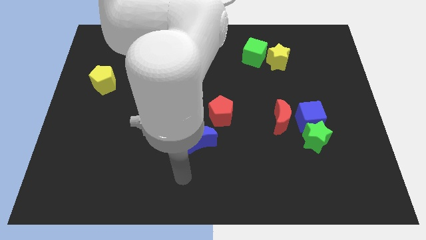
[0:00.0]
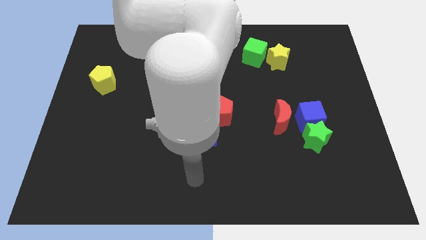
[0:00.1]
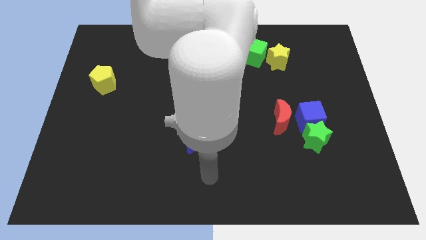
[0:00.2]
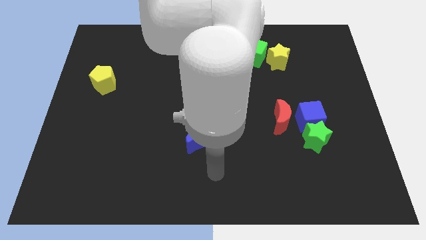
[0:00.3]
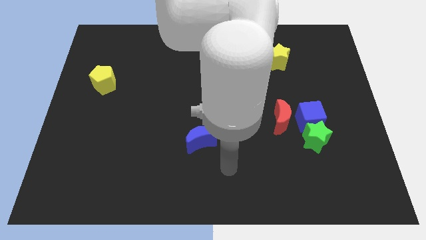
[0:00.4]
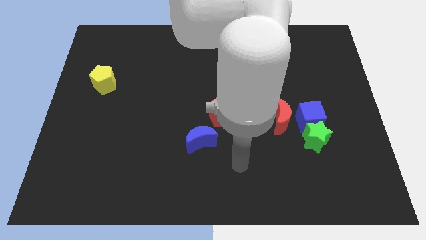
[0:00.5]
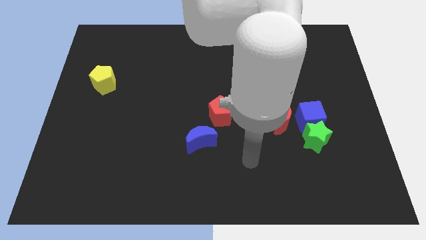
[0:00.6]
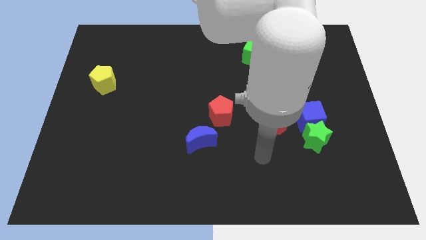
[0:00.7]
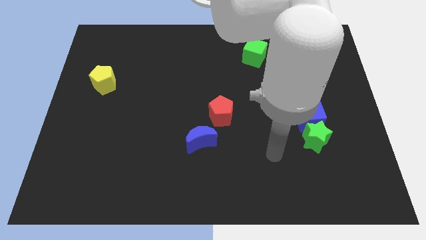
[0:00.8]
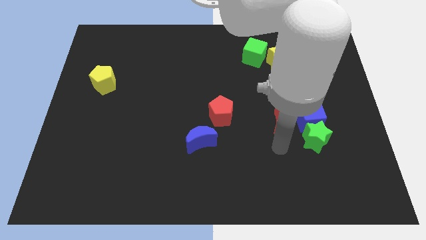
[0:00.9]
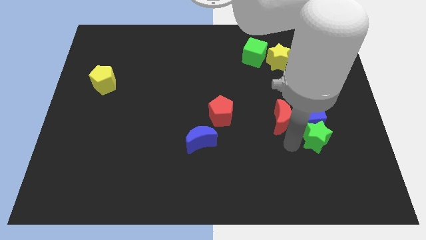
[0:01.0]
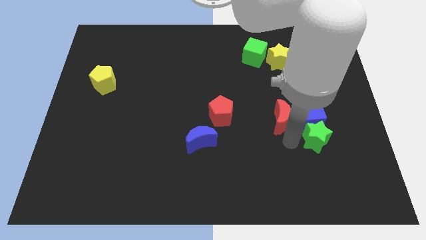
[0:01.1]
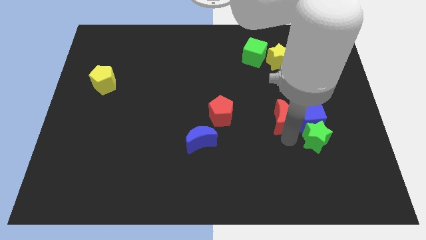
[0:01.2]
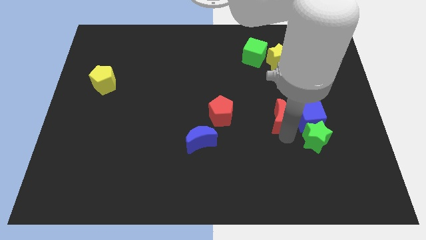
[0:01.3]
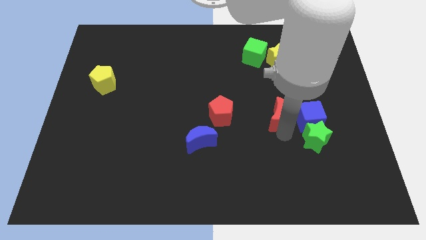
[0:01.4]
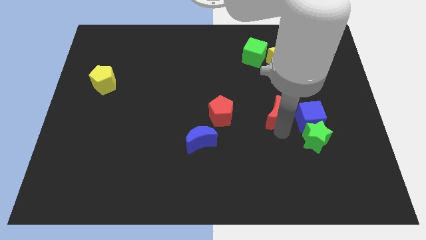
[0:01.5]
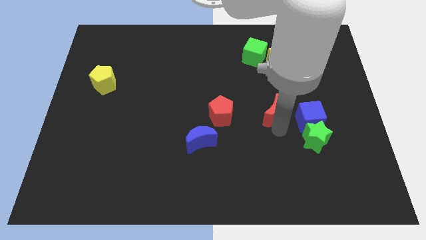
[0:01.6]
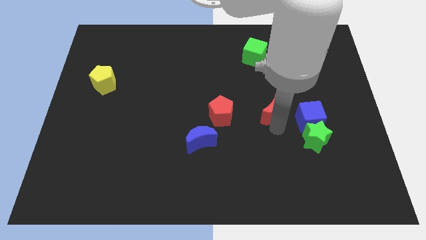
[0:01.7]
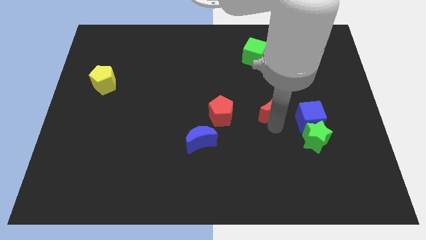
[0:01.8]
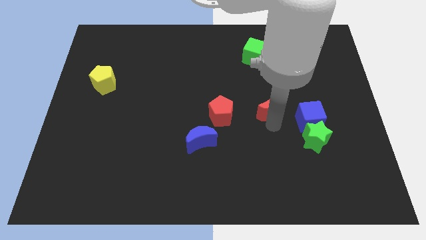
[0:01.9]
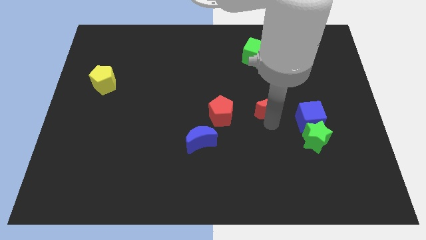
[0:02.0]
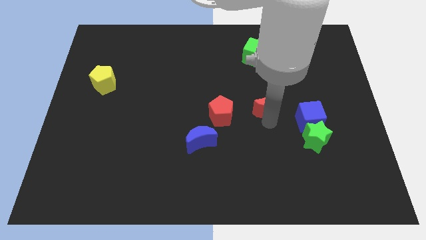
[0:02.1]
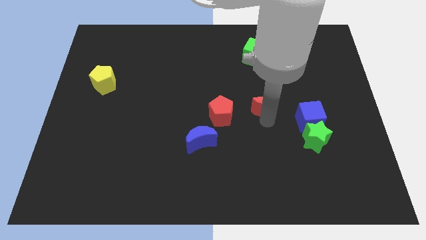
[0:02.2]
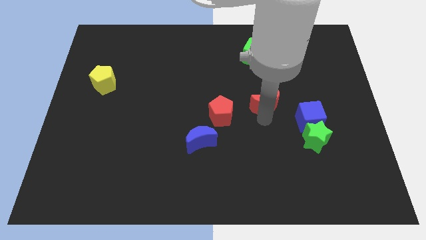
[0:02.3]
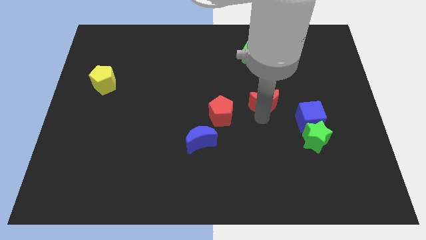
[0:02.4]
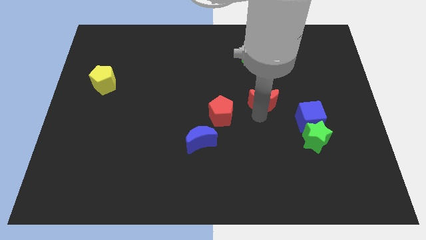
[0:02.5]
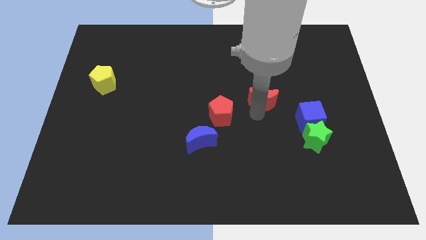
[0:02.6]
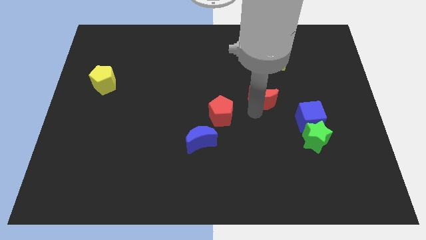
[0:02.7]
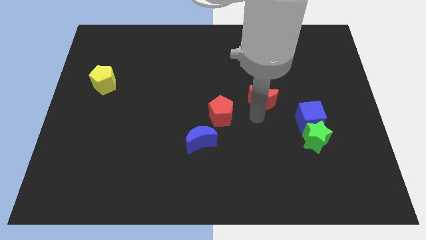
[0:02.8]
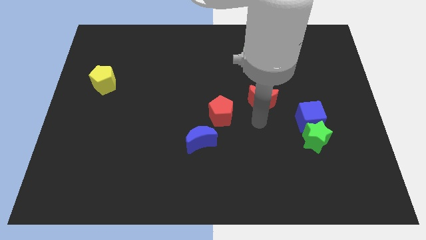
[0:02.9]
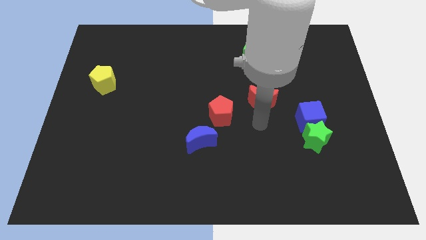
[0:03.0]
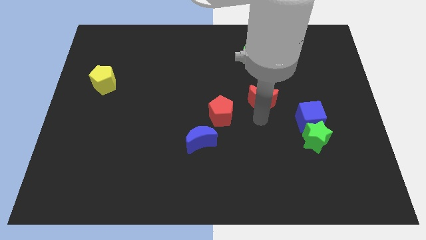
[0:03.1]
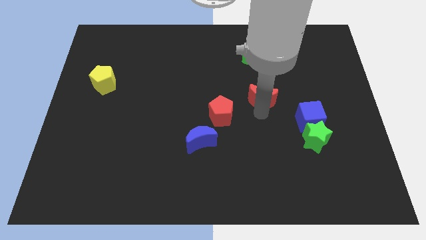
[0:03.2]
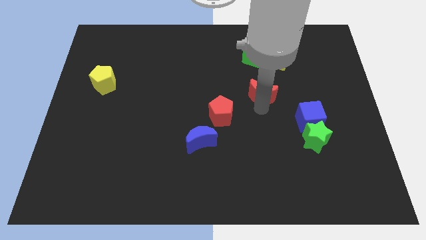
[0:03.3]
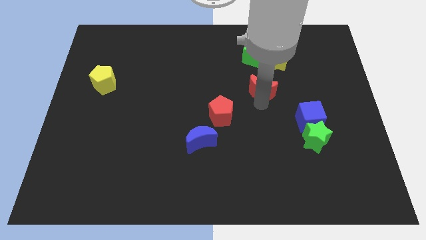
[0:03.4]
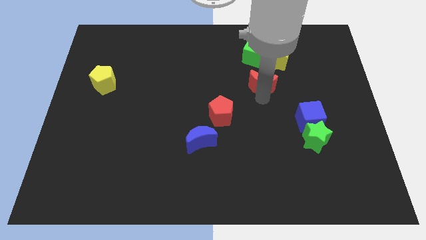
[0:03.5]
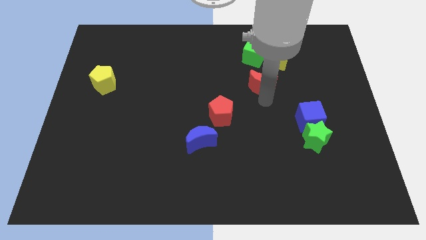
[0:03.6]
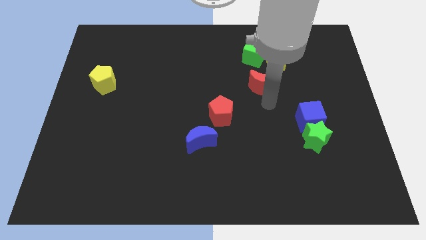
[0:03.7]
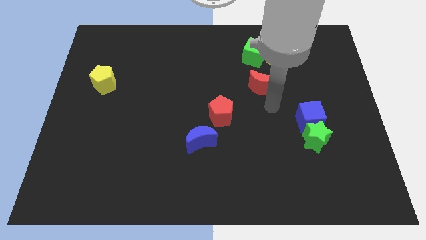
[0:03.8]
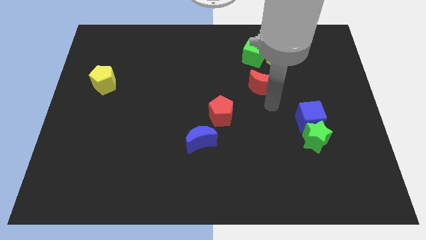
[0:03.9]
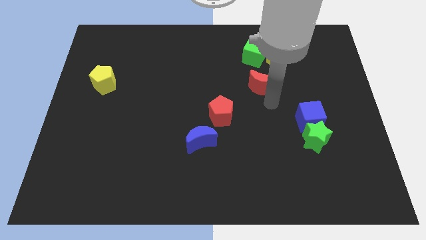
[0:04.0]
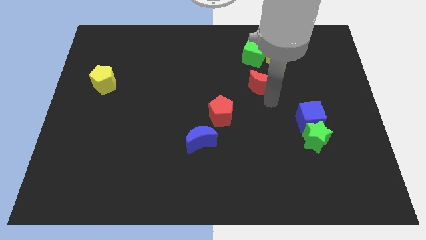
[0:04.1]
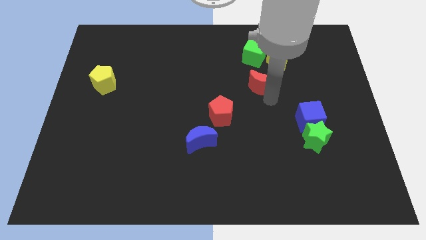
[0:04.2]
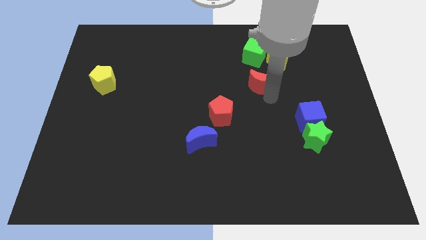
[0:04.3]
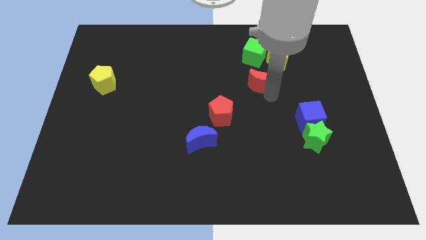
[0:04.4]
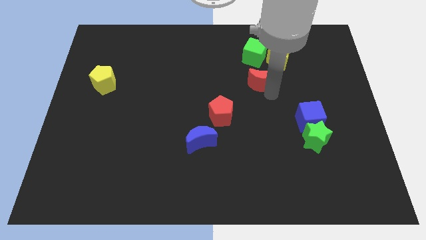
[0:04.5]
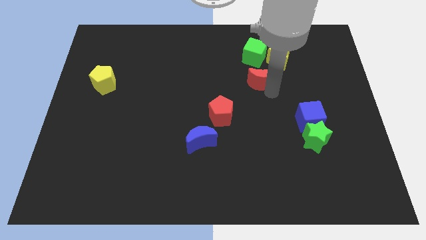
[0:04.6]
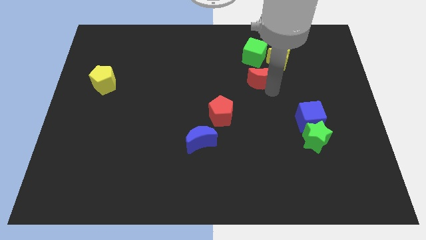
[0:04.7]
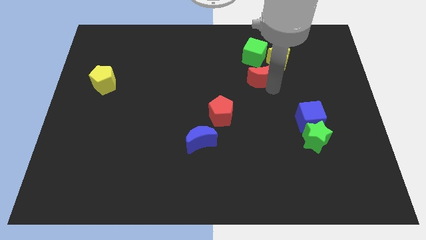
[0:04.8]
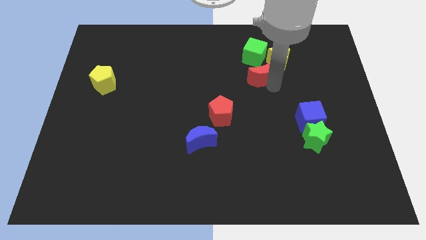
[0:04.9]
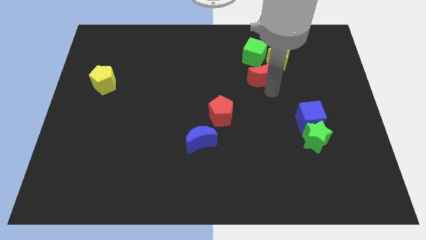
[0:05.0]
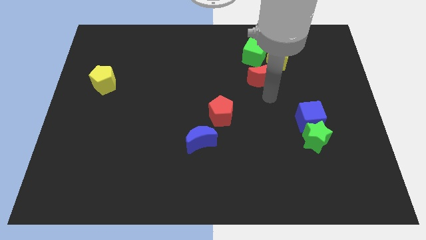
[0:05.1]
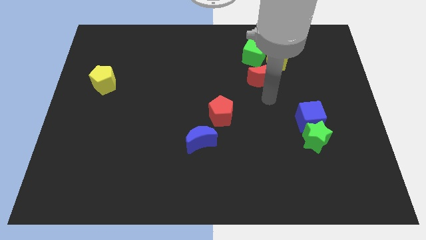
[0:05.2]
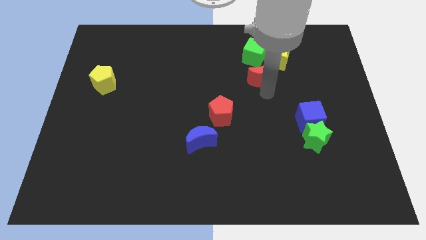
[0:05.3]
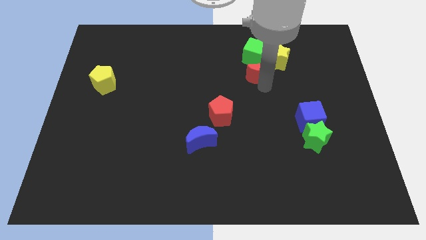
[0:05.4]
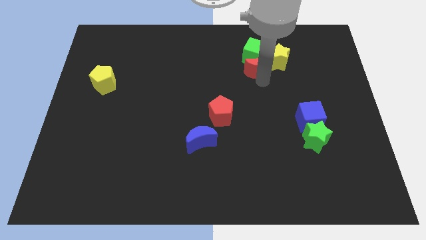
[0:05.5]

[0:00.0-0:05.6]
put the red moon next to the green cube

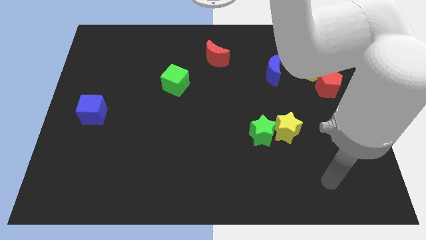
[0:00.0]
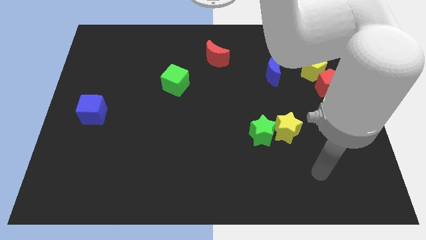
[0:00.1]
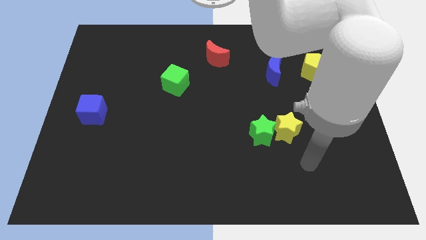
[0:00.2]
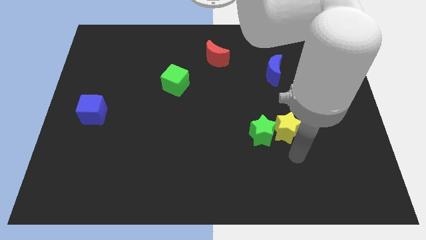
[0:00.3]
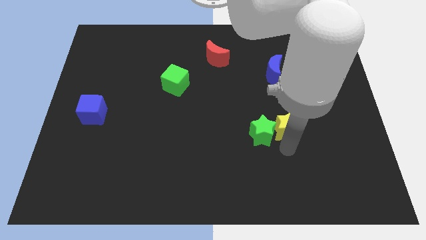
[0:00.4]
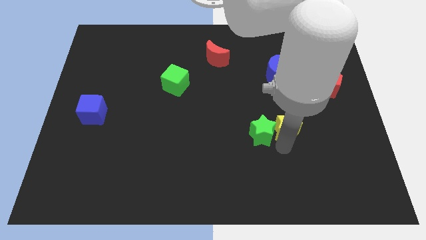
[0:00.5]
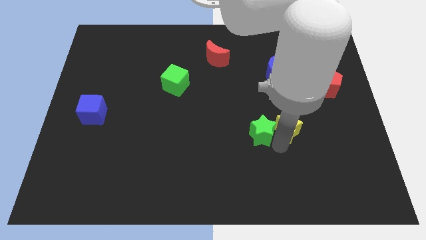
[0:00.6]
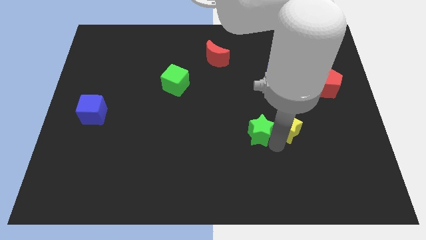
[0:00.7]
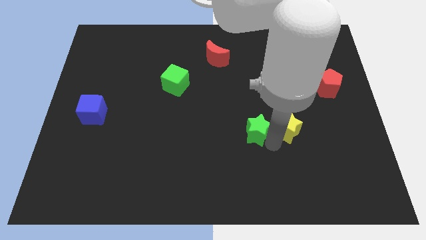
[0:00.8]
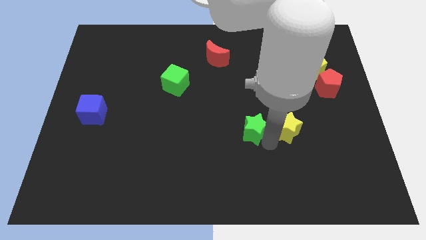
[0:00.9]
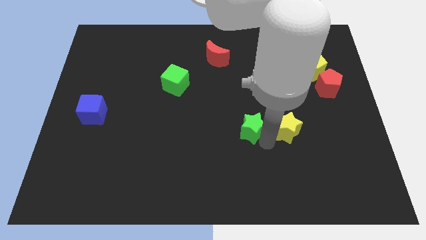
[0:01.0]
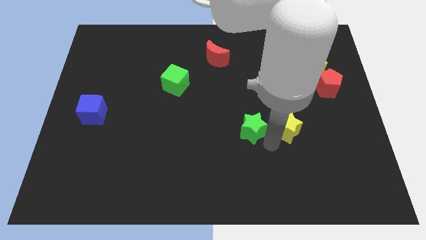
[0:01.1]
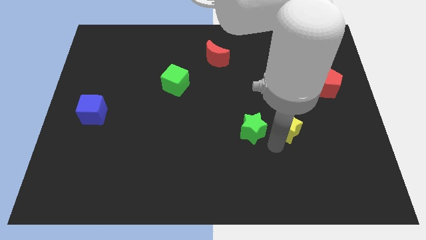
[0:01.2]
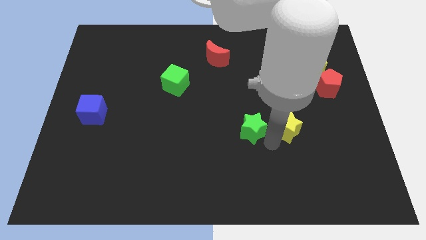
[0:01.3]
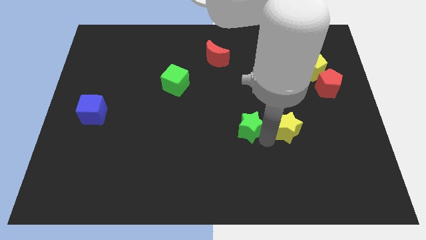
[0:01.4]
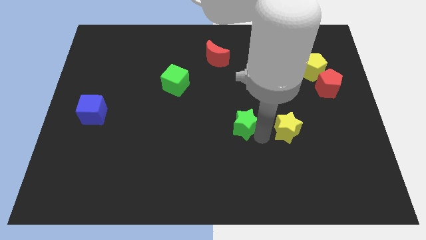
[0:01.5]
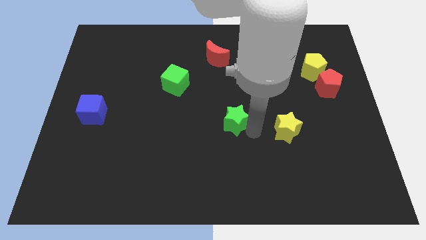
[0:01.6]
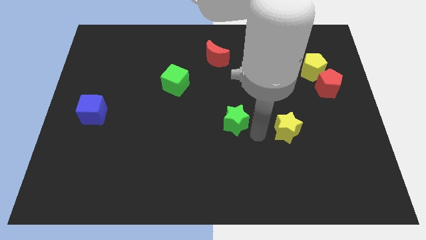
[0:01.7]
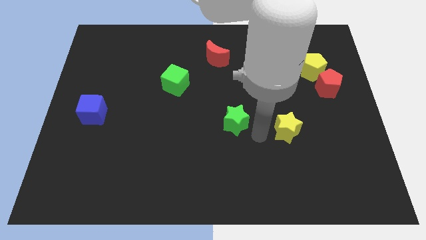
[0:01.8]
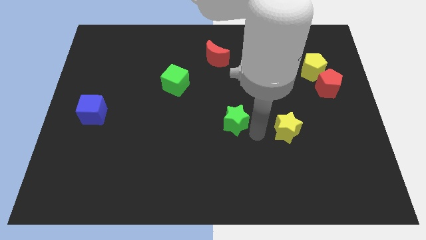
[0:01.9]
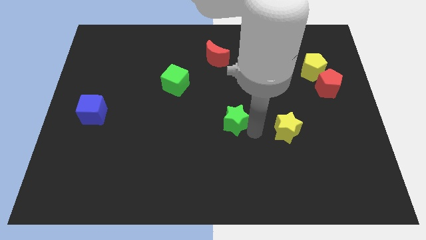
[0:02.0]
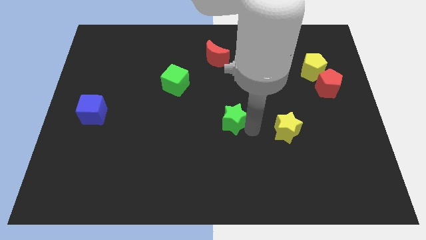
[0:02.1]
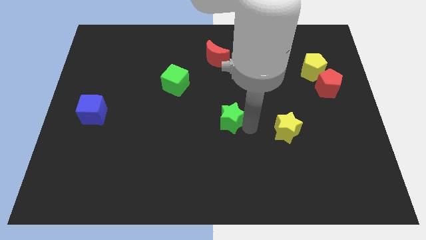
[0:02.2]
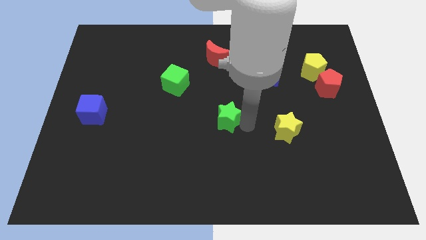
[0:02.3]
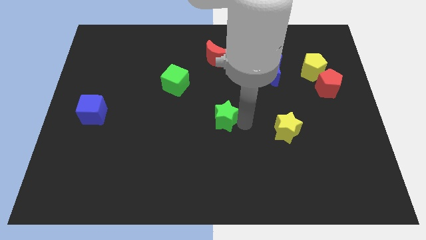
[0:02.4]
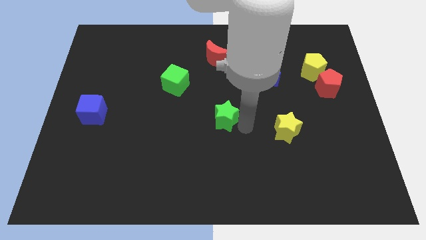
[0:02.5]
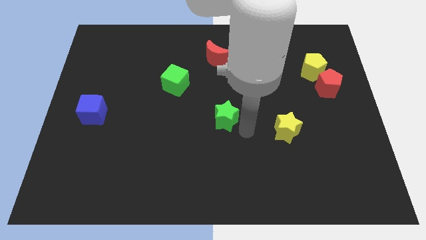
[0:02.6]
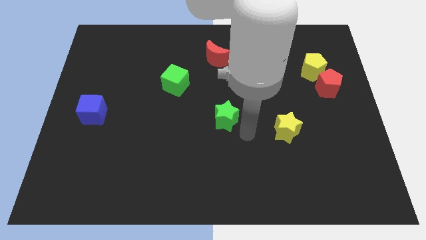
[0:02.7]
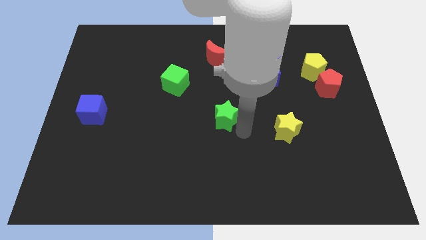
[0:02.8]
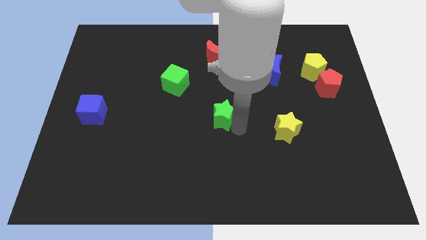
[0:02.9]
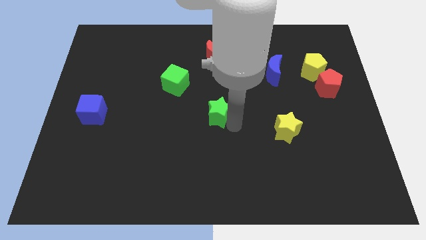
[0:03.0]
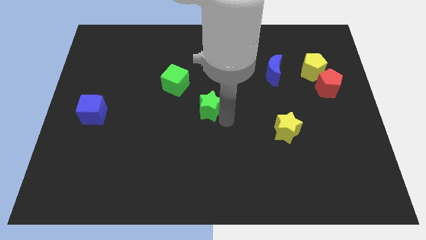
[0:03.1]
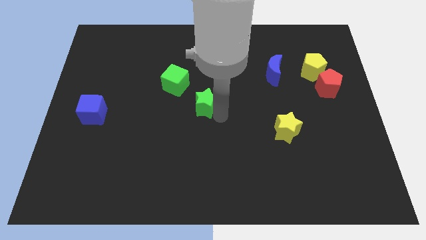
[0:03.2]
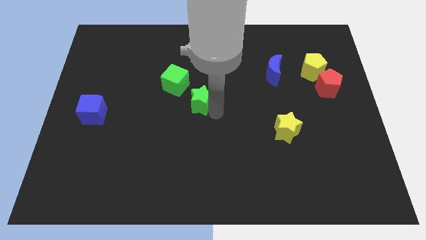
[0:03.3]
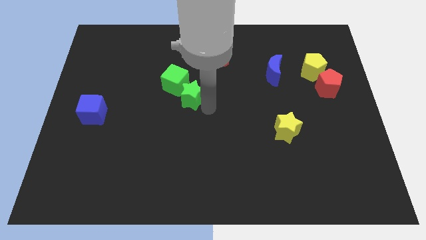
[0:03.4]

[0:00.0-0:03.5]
slide the green star next to the green cube
